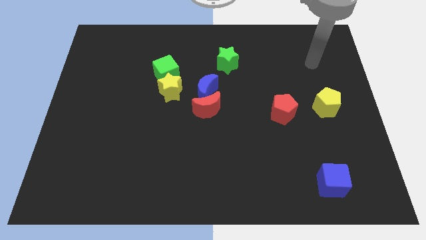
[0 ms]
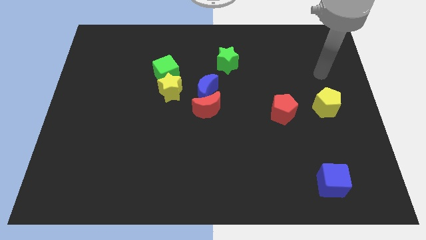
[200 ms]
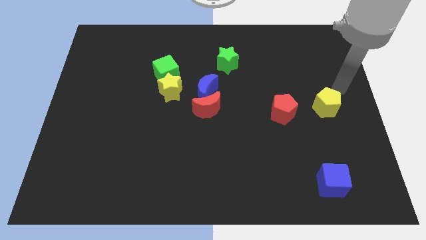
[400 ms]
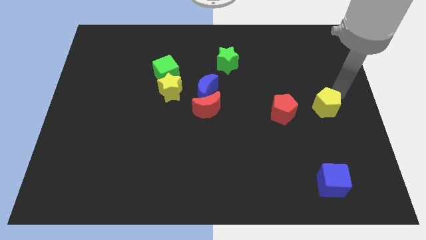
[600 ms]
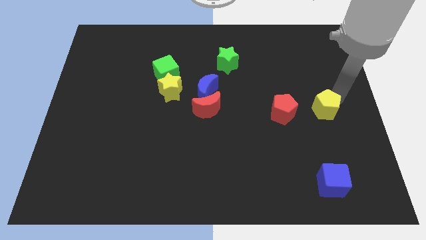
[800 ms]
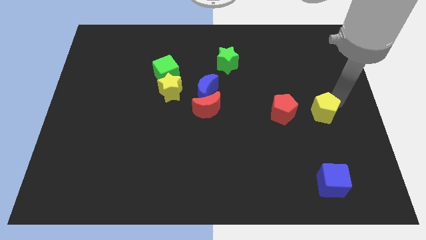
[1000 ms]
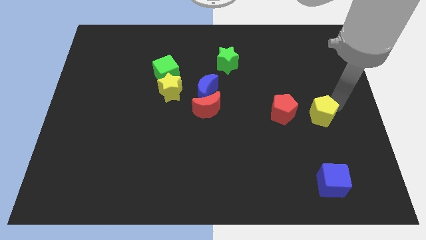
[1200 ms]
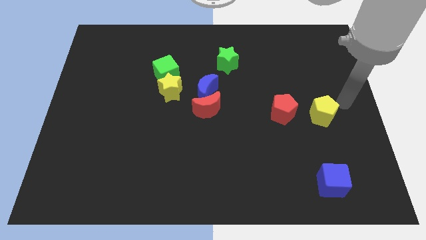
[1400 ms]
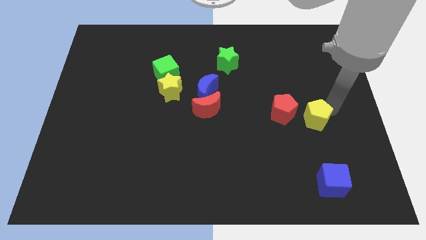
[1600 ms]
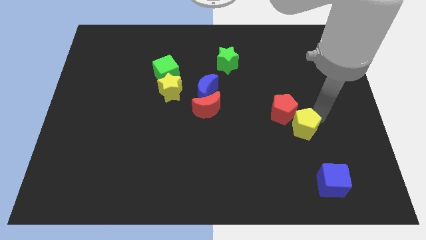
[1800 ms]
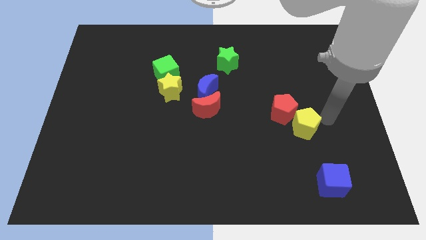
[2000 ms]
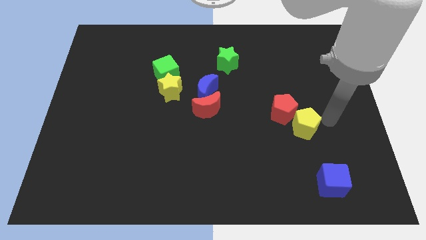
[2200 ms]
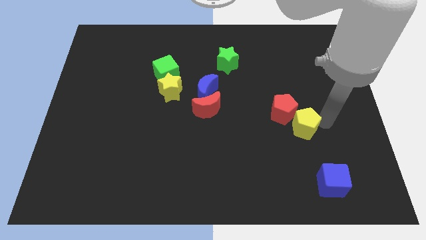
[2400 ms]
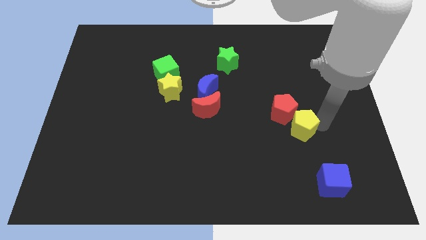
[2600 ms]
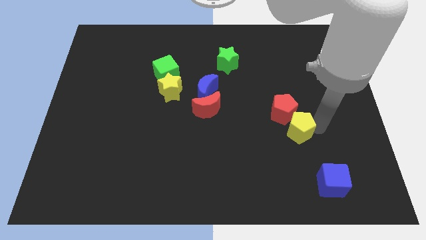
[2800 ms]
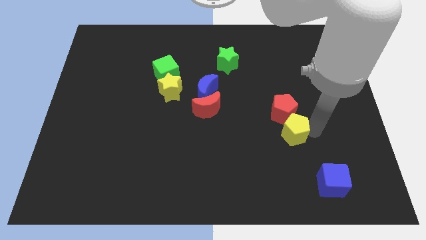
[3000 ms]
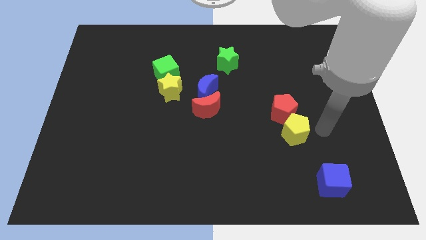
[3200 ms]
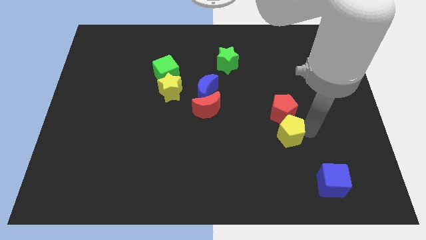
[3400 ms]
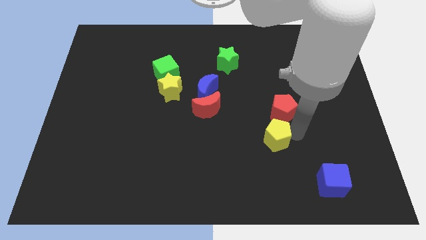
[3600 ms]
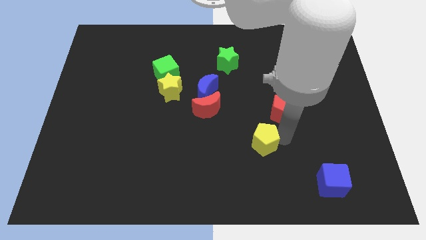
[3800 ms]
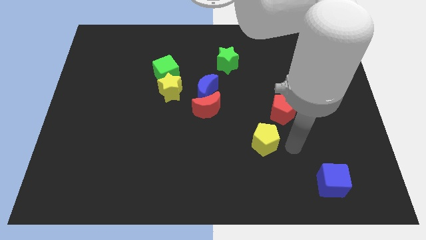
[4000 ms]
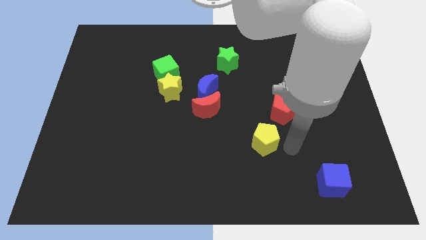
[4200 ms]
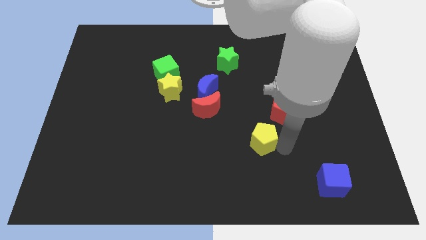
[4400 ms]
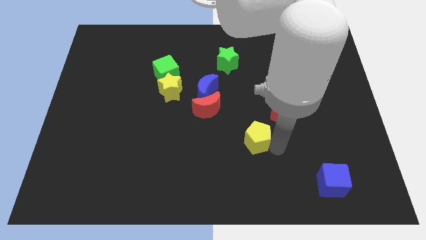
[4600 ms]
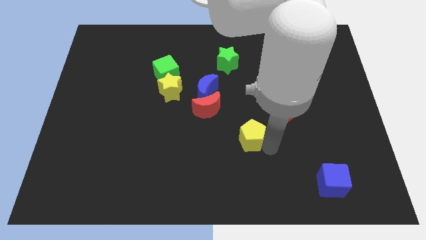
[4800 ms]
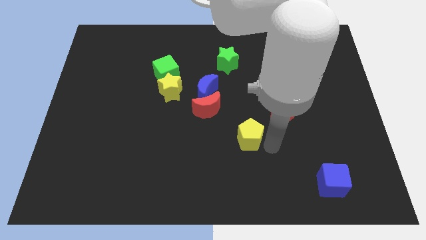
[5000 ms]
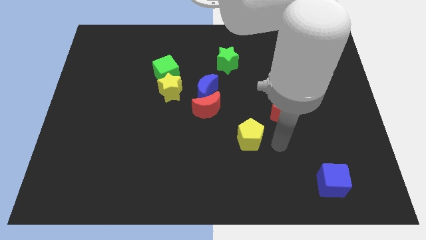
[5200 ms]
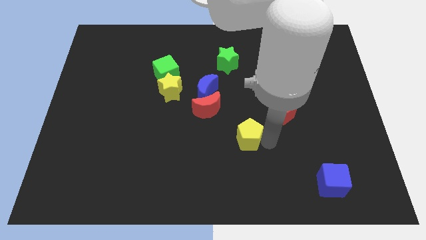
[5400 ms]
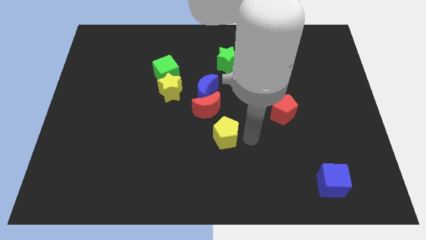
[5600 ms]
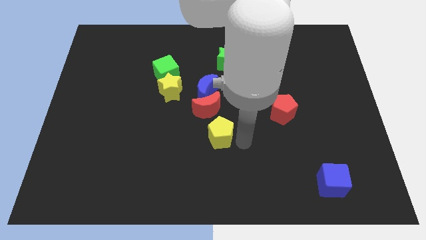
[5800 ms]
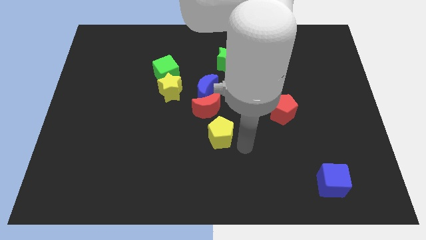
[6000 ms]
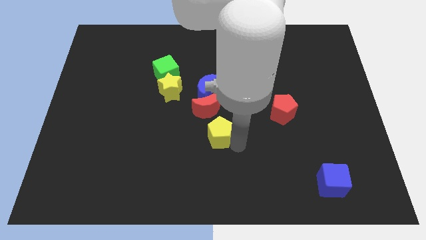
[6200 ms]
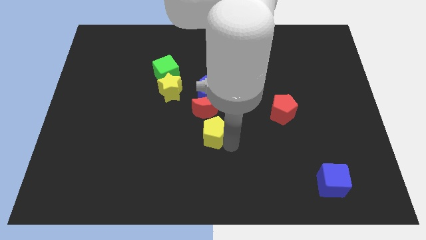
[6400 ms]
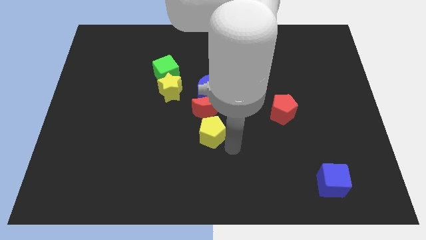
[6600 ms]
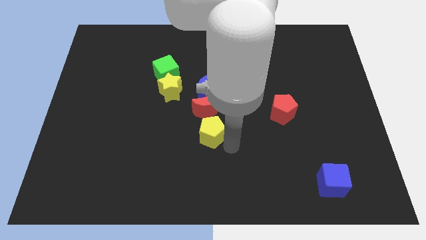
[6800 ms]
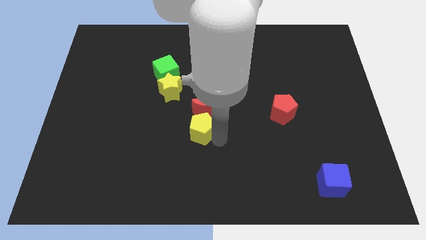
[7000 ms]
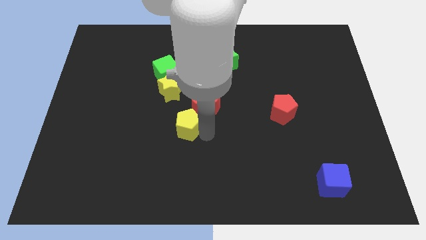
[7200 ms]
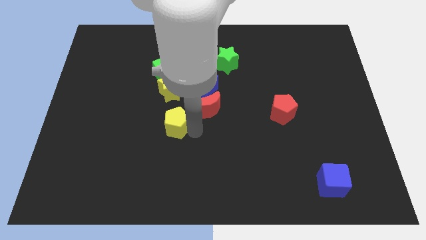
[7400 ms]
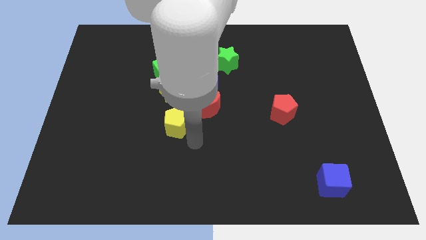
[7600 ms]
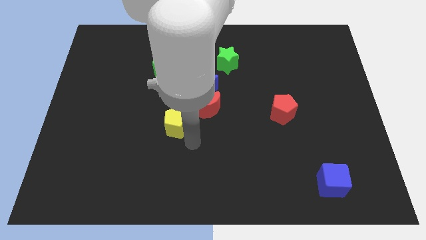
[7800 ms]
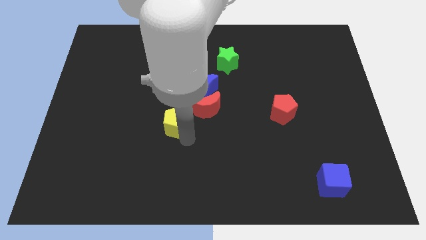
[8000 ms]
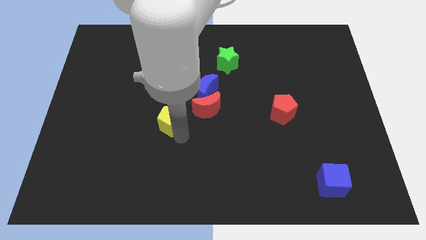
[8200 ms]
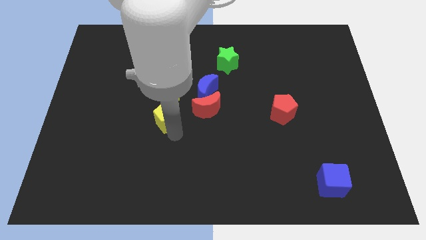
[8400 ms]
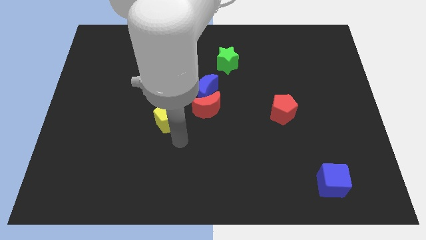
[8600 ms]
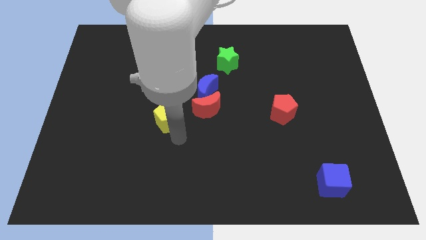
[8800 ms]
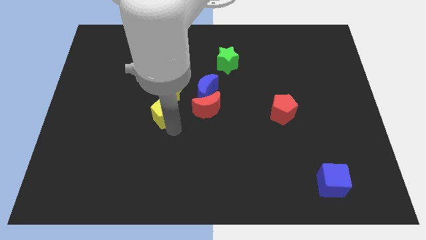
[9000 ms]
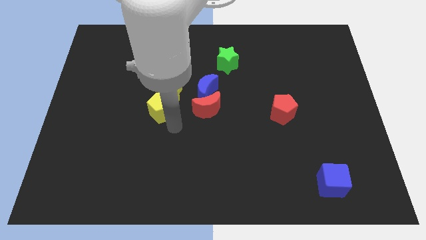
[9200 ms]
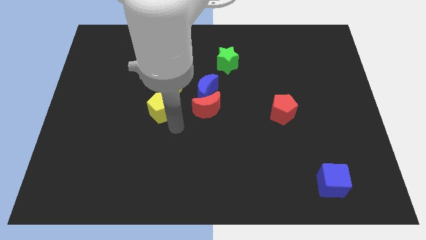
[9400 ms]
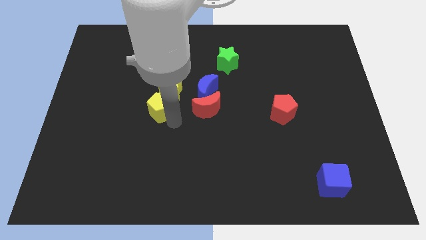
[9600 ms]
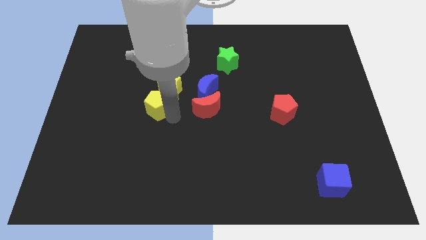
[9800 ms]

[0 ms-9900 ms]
slide the yellow pentagon to the left of the blue moon

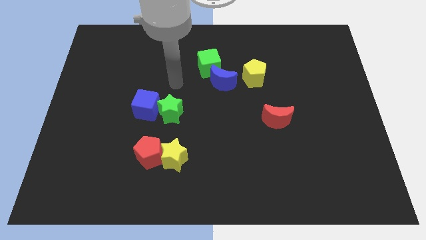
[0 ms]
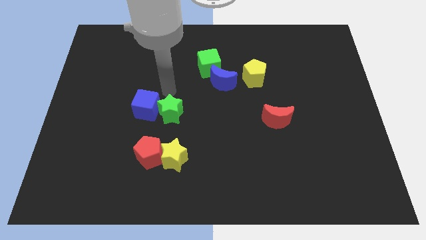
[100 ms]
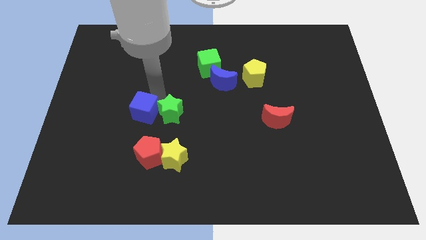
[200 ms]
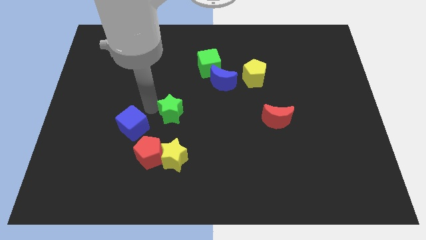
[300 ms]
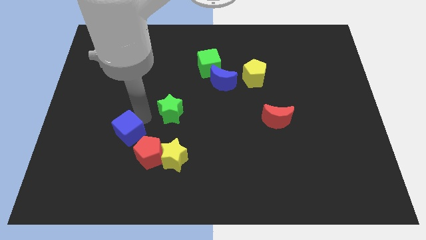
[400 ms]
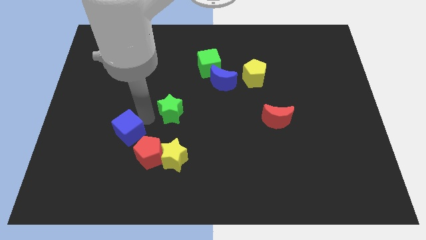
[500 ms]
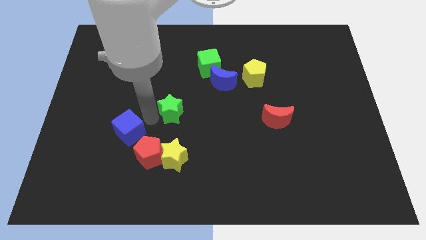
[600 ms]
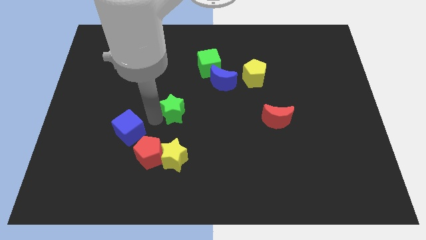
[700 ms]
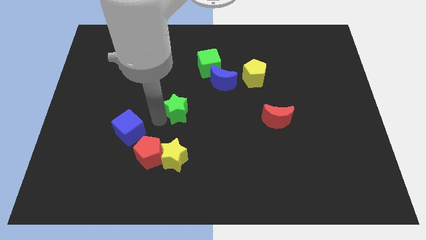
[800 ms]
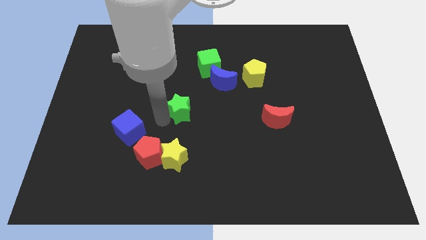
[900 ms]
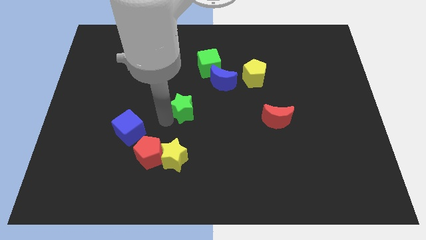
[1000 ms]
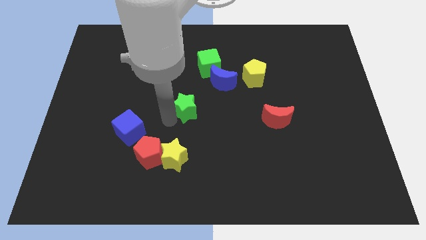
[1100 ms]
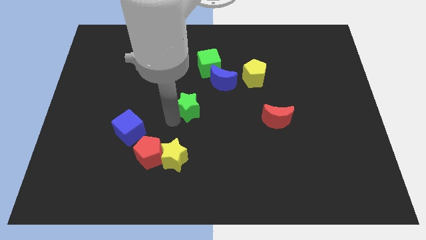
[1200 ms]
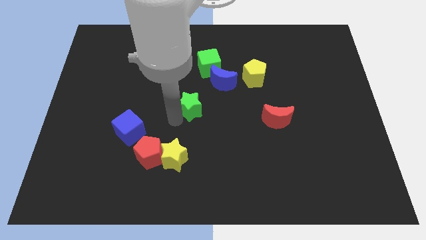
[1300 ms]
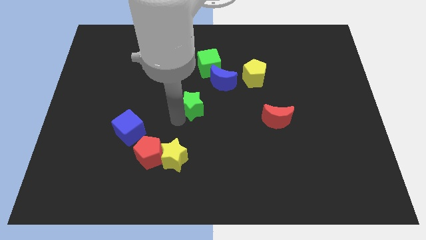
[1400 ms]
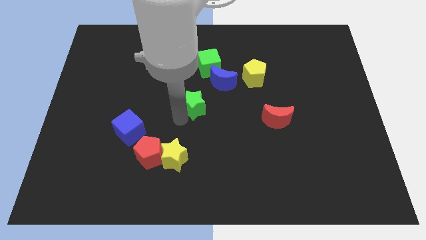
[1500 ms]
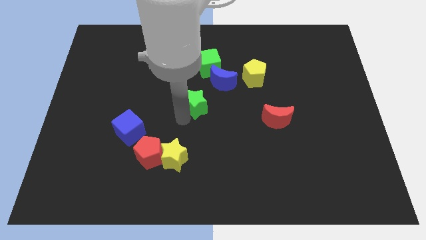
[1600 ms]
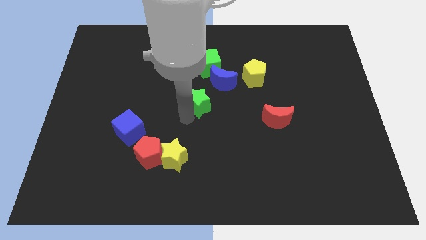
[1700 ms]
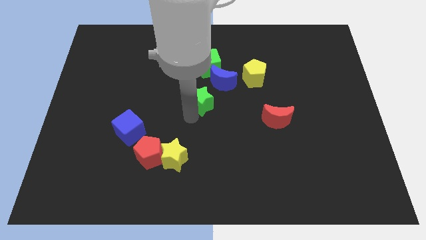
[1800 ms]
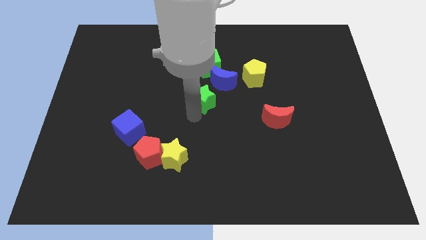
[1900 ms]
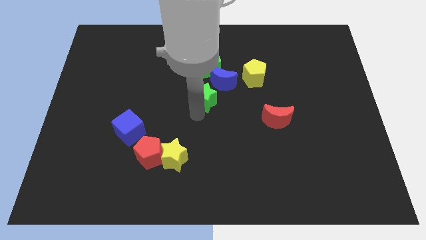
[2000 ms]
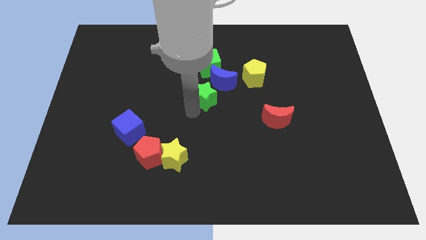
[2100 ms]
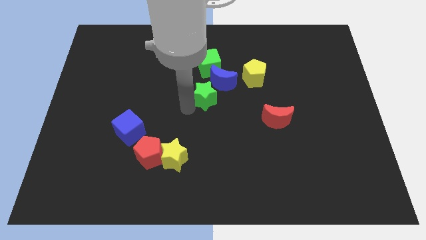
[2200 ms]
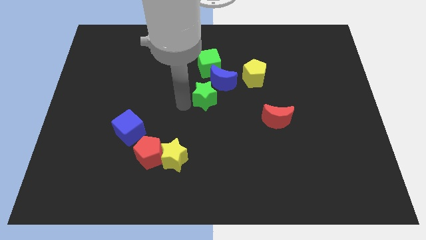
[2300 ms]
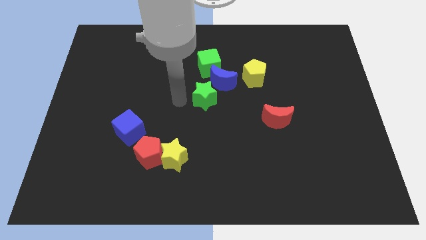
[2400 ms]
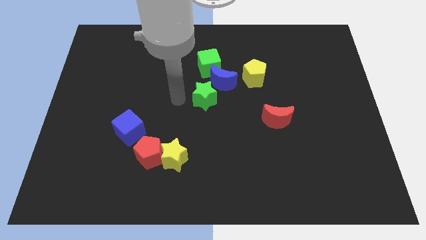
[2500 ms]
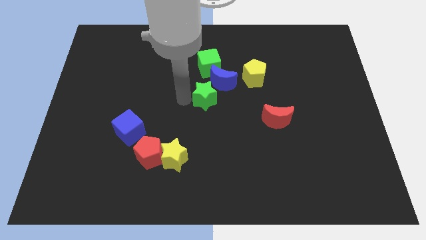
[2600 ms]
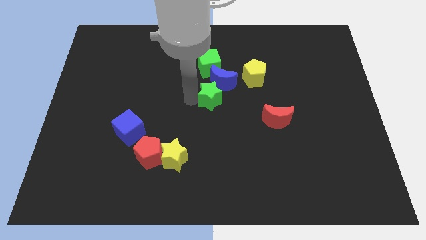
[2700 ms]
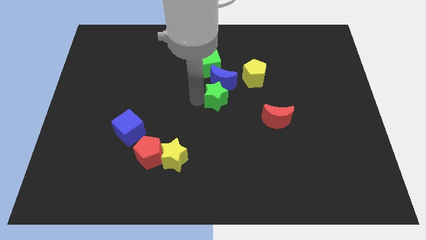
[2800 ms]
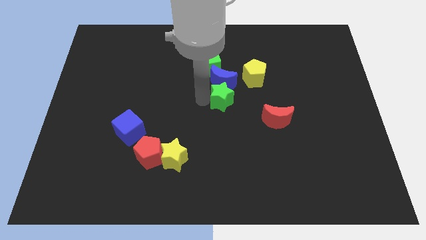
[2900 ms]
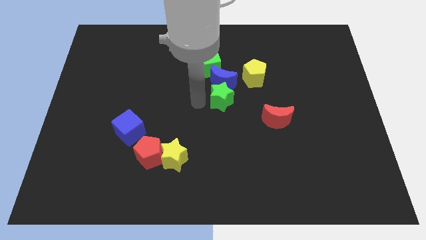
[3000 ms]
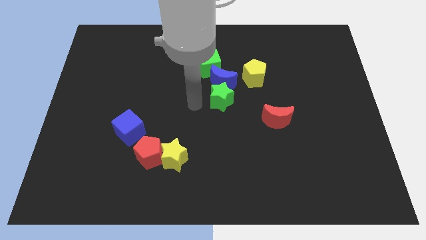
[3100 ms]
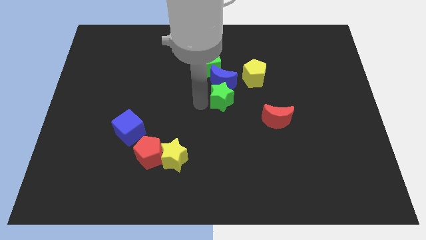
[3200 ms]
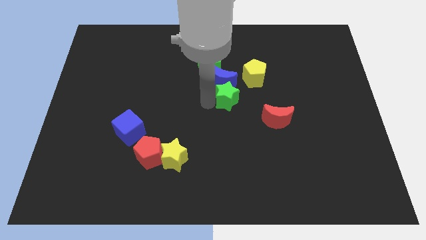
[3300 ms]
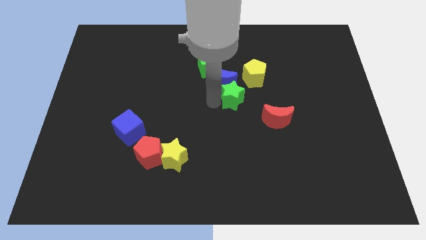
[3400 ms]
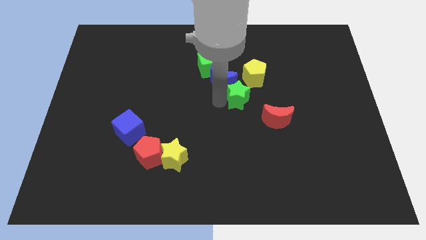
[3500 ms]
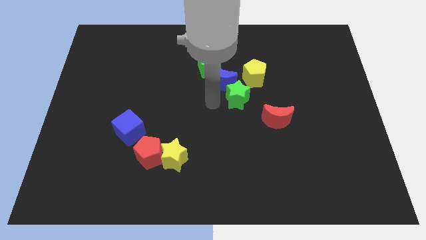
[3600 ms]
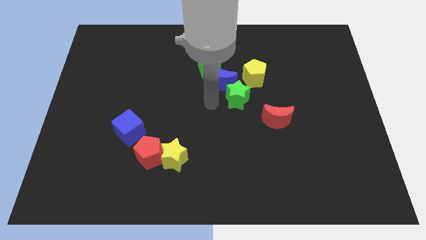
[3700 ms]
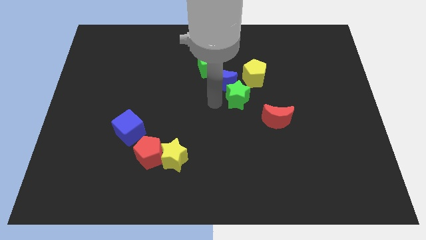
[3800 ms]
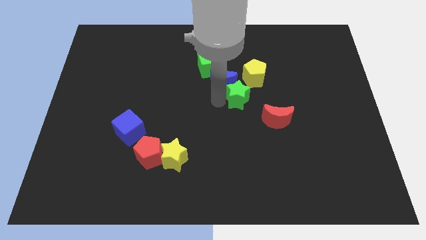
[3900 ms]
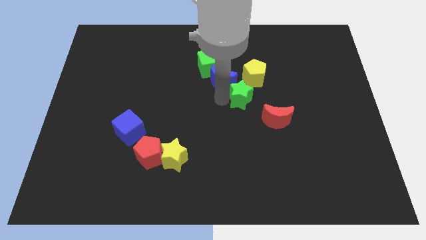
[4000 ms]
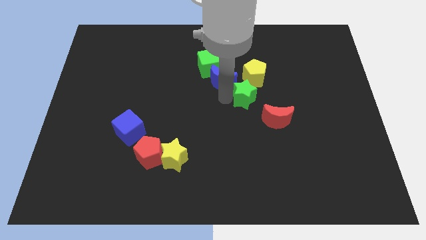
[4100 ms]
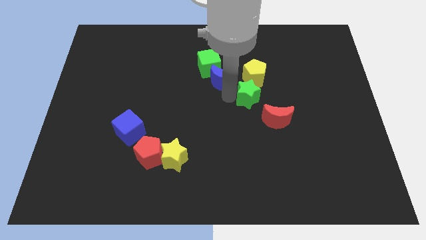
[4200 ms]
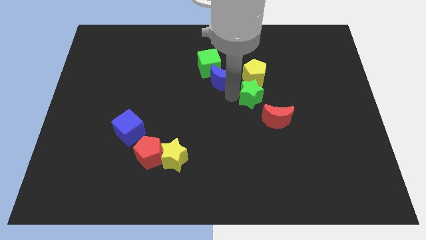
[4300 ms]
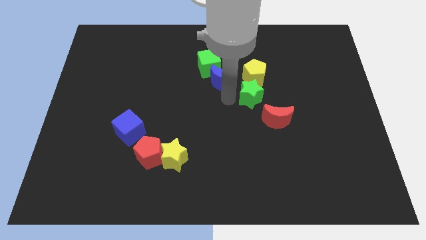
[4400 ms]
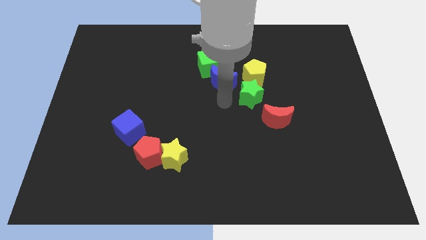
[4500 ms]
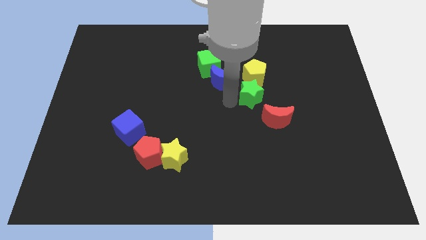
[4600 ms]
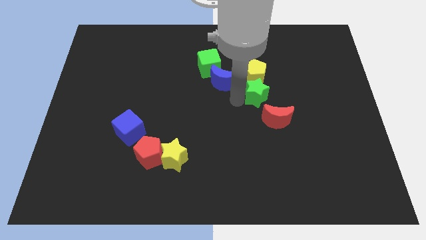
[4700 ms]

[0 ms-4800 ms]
put the green star to the bottom right side of the yellow pentagon
